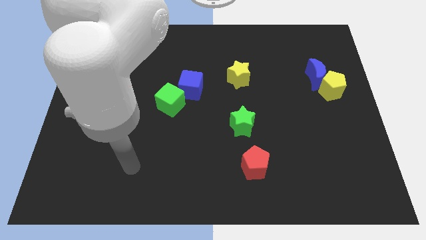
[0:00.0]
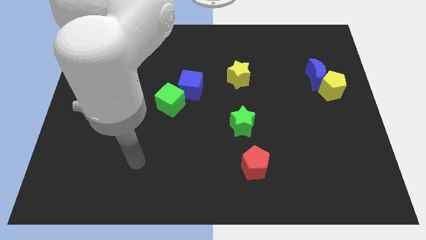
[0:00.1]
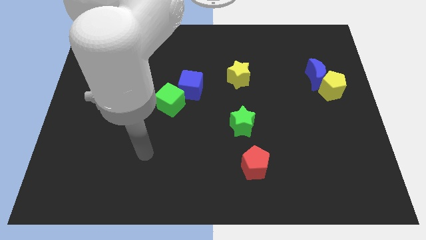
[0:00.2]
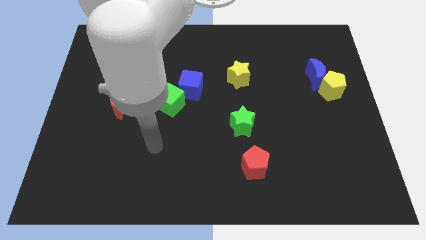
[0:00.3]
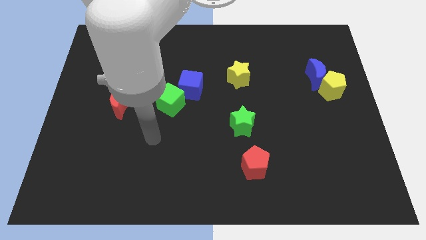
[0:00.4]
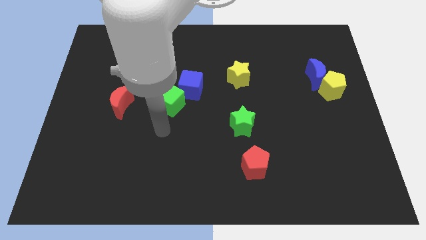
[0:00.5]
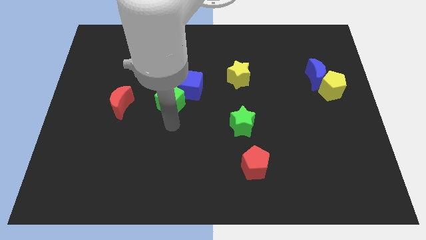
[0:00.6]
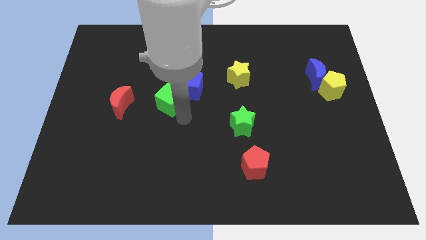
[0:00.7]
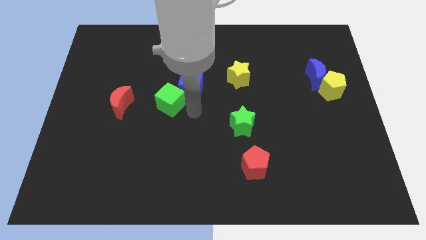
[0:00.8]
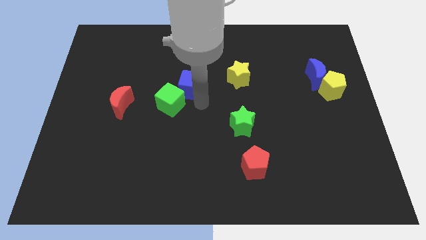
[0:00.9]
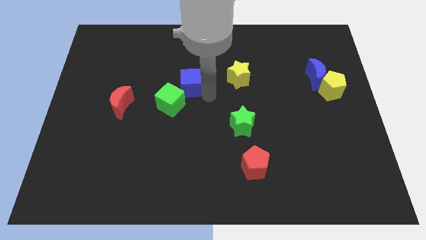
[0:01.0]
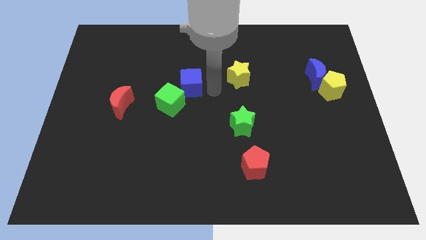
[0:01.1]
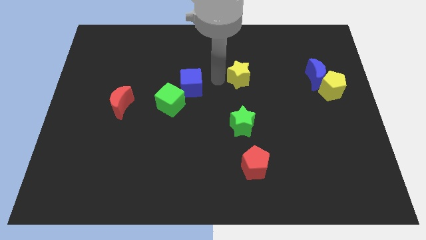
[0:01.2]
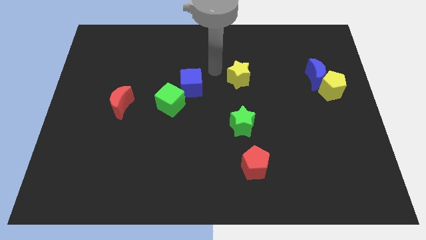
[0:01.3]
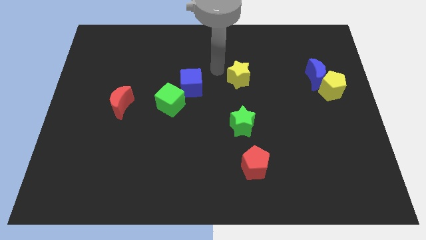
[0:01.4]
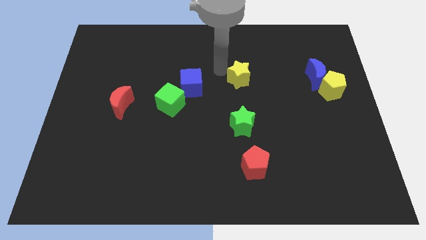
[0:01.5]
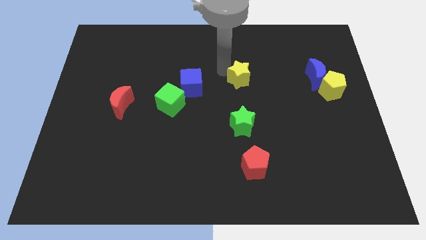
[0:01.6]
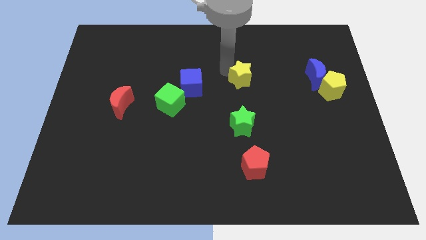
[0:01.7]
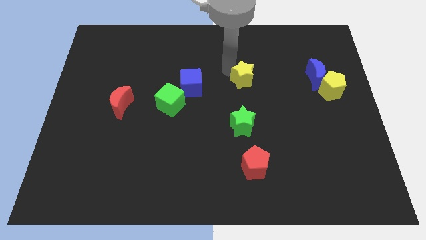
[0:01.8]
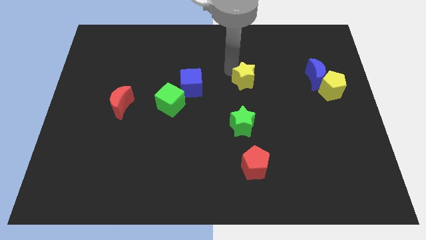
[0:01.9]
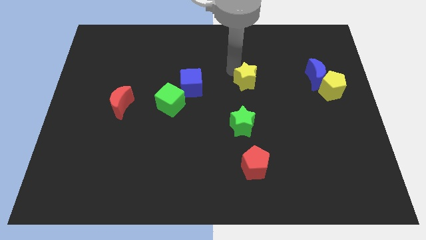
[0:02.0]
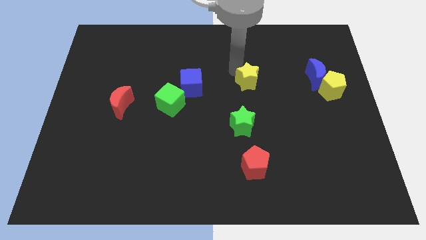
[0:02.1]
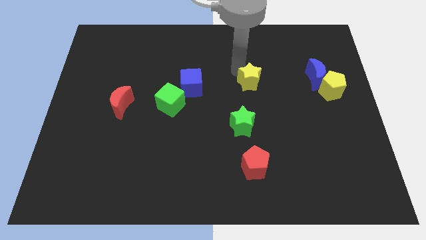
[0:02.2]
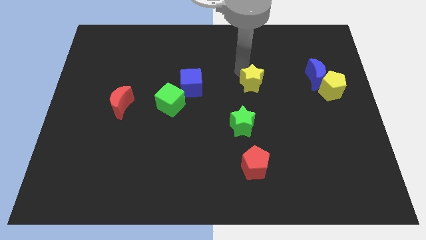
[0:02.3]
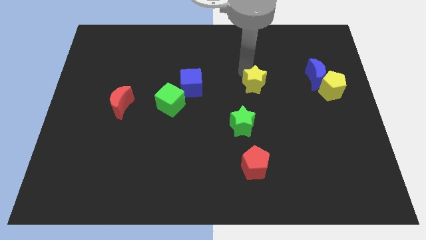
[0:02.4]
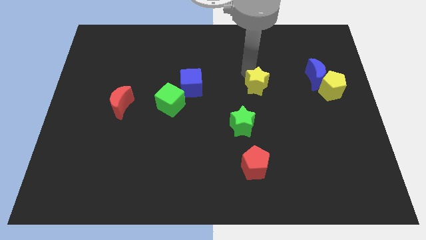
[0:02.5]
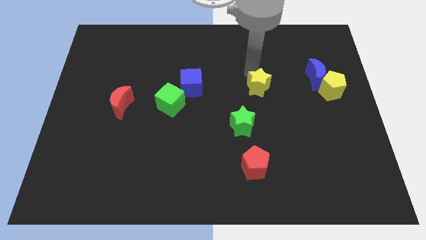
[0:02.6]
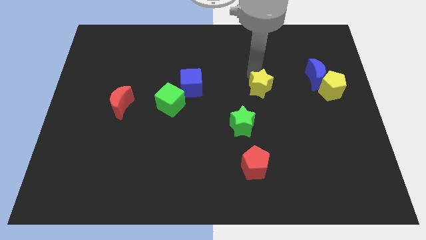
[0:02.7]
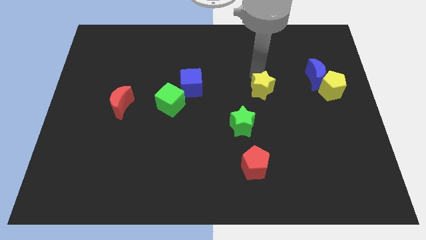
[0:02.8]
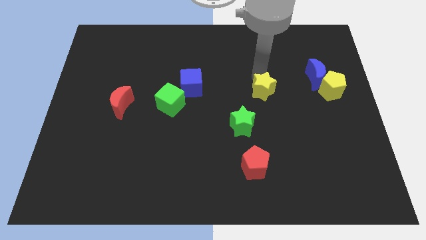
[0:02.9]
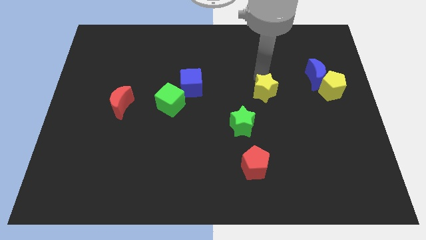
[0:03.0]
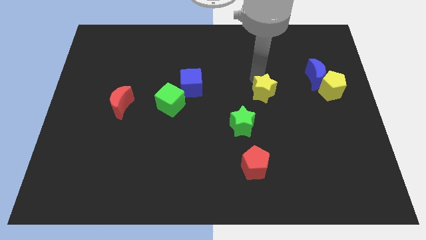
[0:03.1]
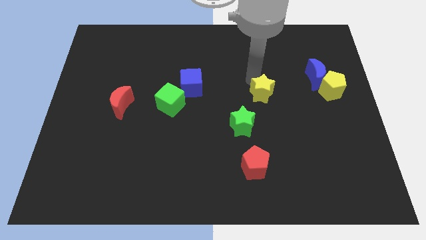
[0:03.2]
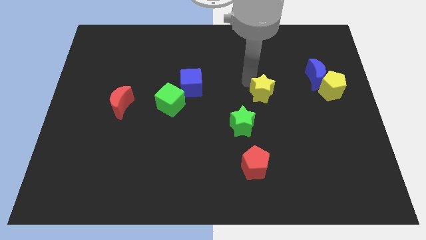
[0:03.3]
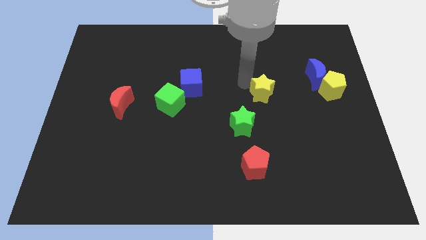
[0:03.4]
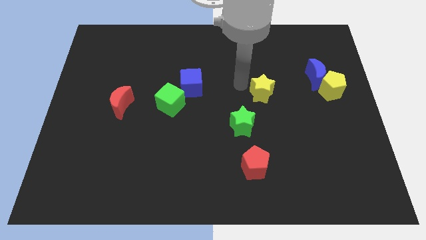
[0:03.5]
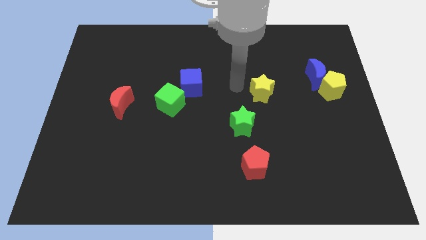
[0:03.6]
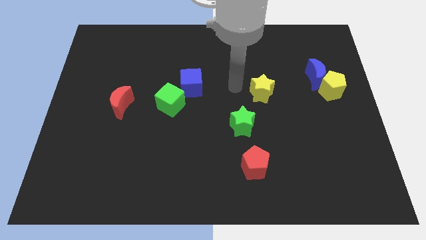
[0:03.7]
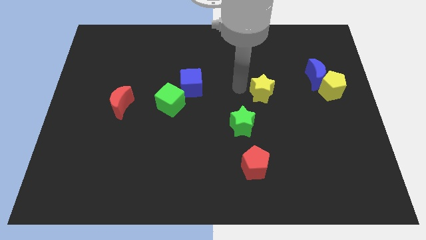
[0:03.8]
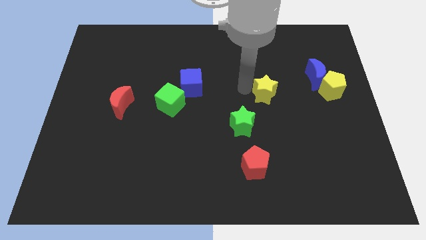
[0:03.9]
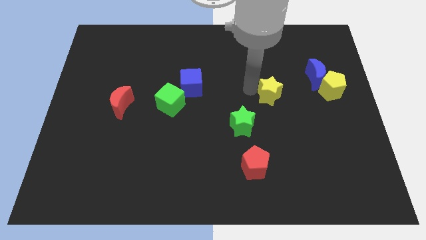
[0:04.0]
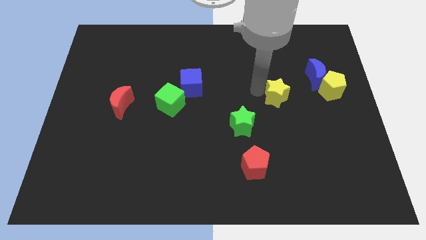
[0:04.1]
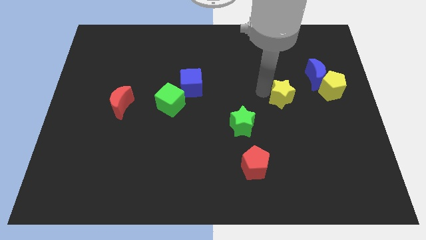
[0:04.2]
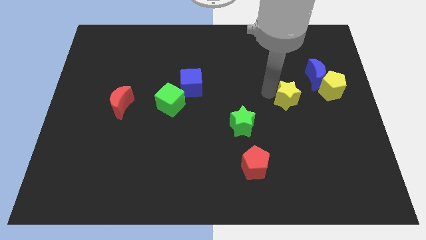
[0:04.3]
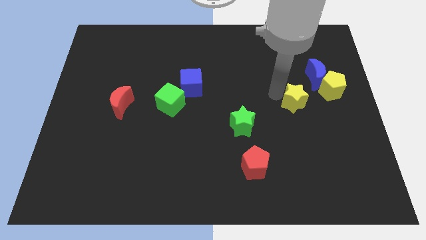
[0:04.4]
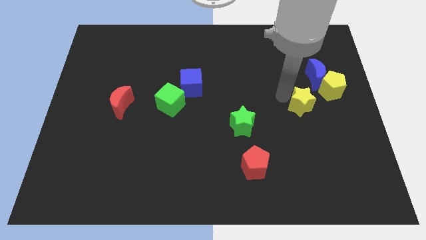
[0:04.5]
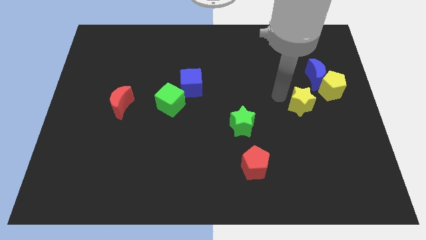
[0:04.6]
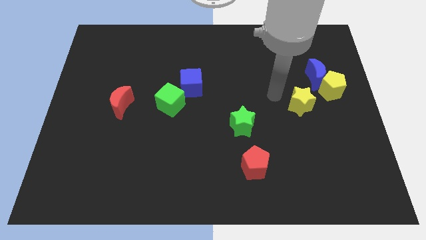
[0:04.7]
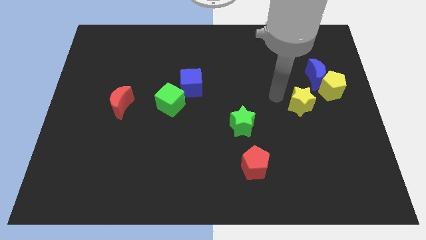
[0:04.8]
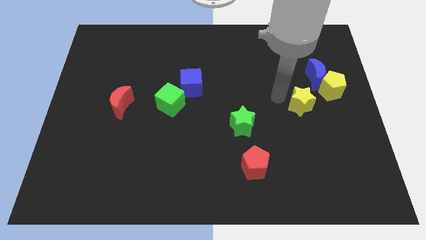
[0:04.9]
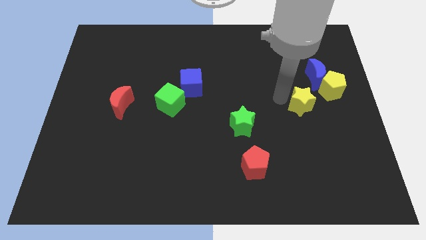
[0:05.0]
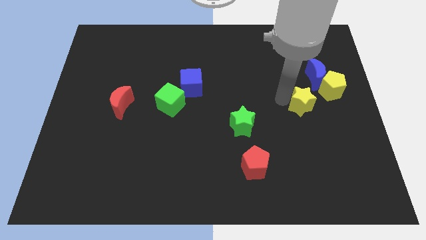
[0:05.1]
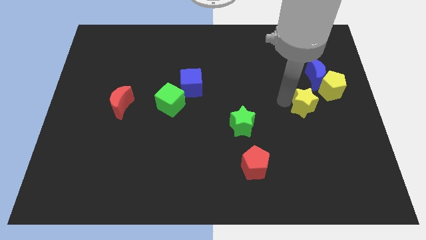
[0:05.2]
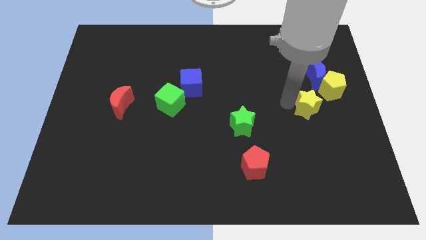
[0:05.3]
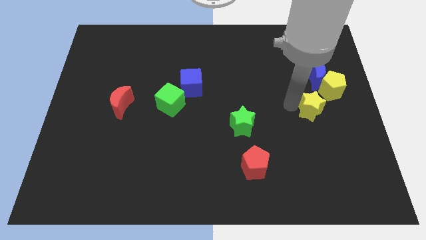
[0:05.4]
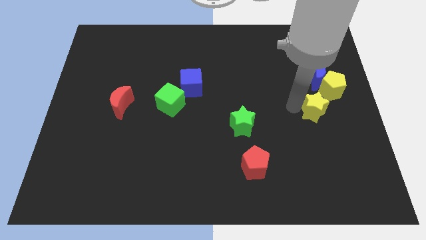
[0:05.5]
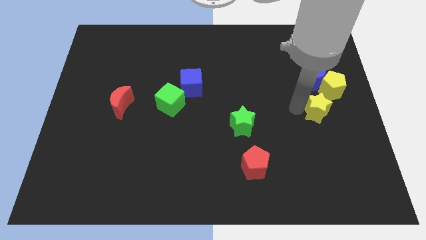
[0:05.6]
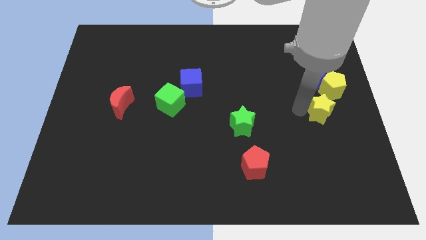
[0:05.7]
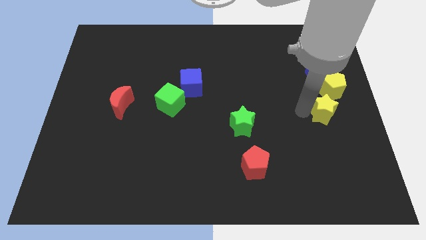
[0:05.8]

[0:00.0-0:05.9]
slide the yellow star to the right side of the board

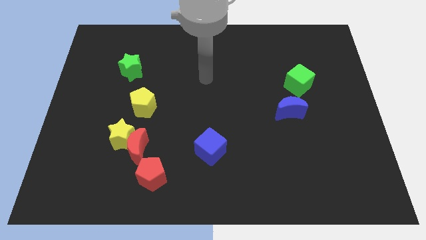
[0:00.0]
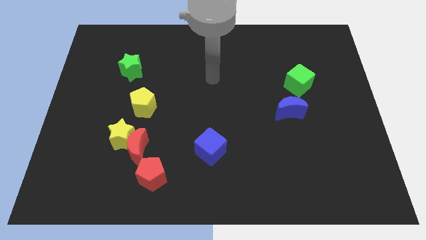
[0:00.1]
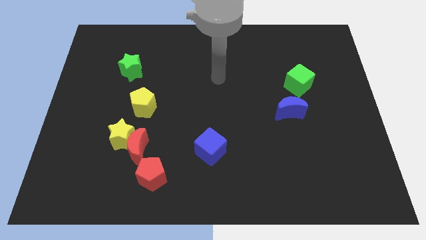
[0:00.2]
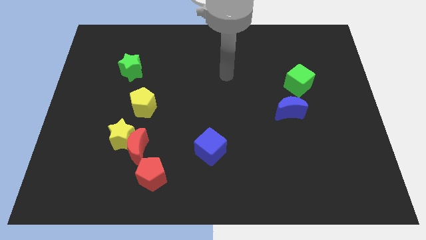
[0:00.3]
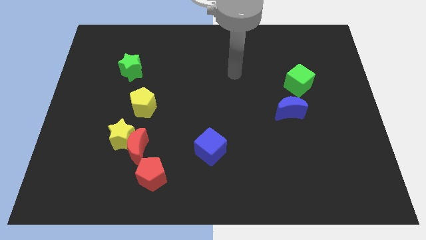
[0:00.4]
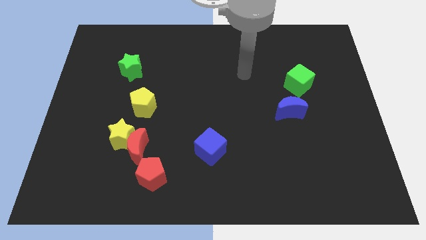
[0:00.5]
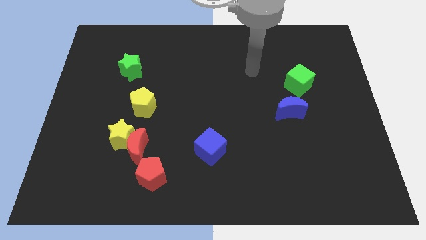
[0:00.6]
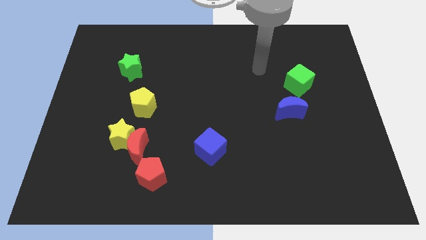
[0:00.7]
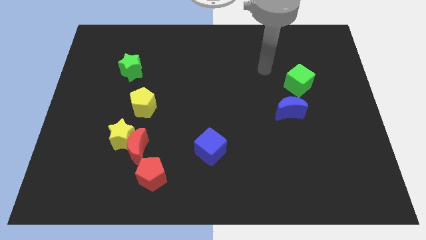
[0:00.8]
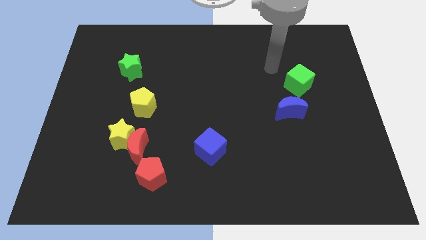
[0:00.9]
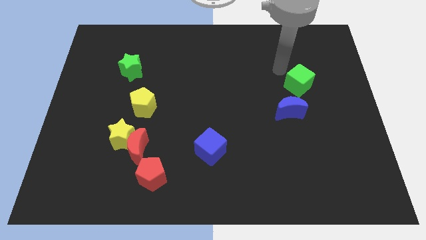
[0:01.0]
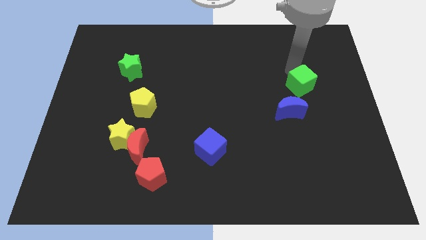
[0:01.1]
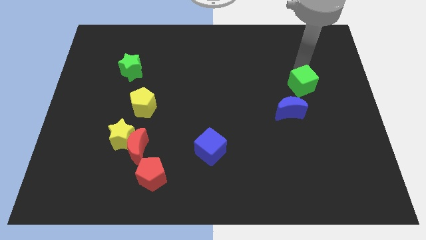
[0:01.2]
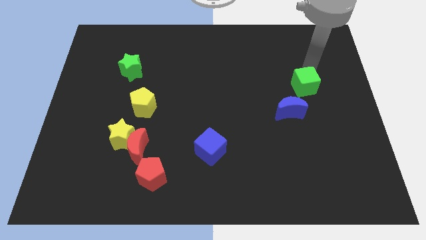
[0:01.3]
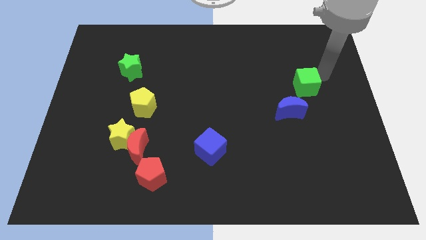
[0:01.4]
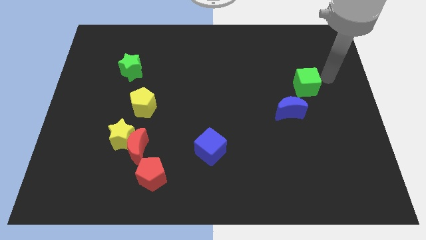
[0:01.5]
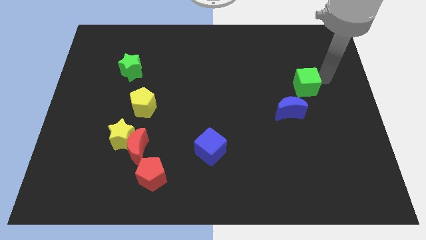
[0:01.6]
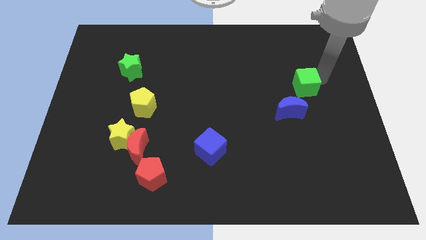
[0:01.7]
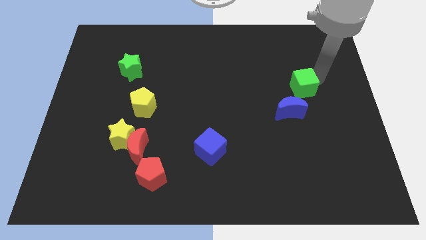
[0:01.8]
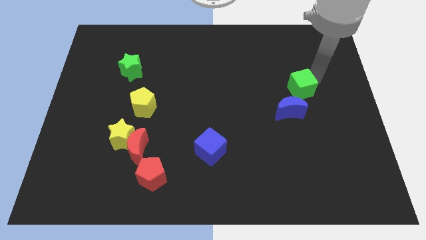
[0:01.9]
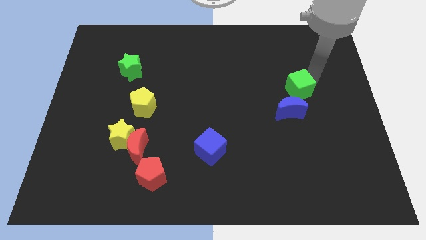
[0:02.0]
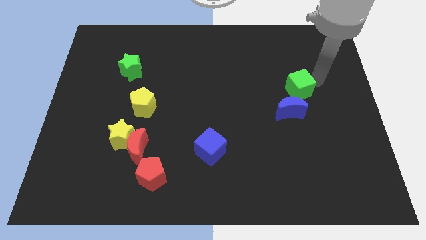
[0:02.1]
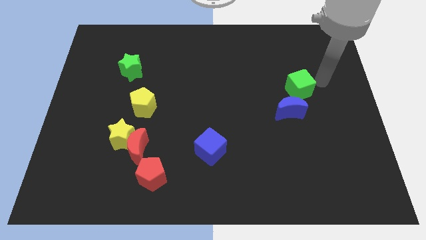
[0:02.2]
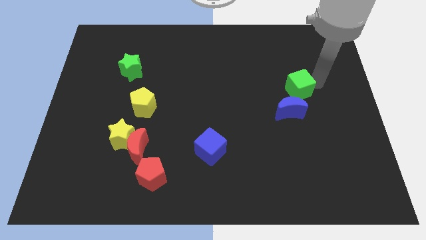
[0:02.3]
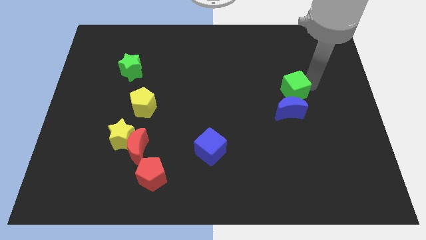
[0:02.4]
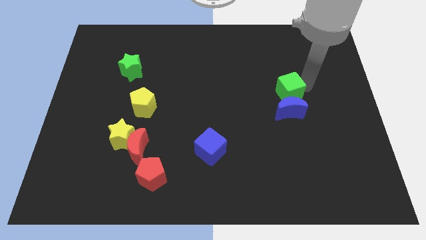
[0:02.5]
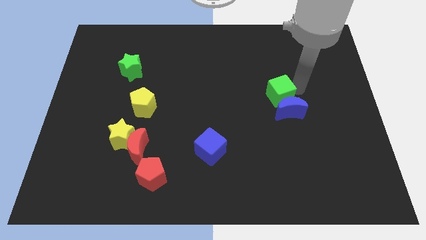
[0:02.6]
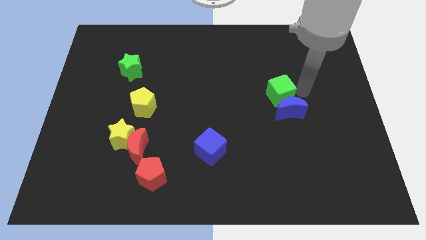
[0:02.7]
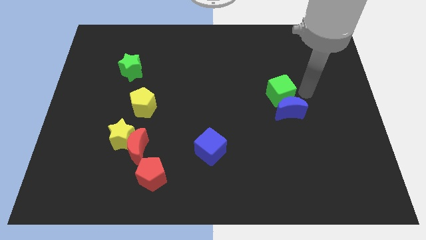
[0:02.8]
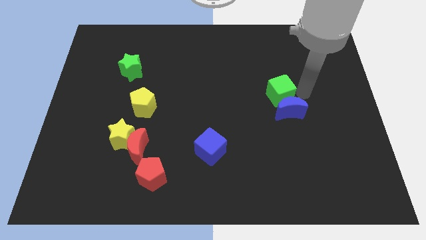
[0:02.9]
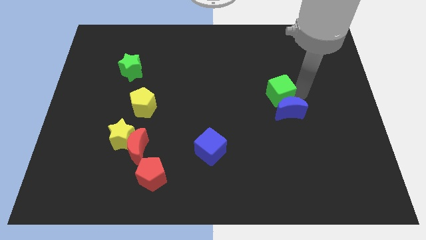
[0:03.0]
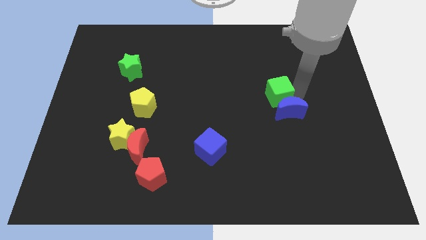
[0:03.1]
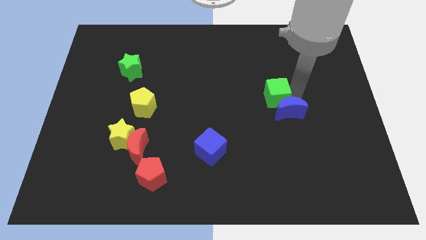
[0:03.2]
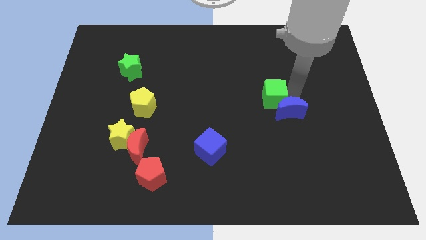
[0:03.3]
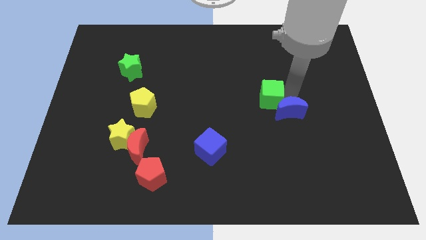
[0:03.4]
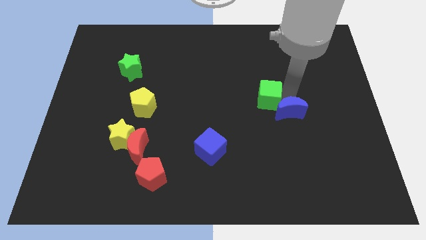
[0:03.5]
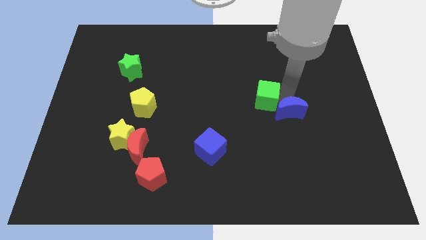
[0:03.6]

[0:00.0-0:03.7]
put the green cube to the center of the board
